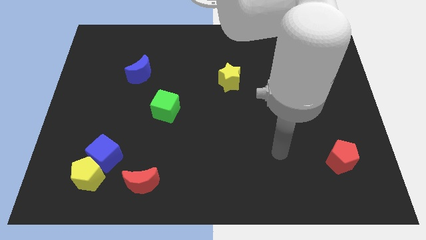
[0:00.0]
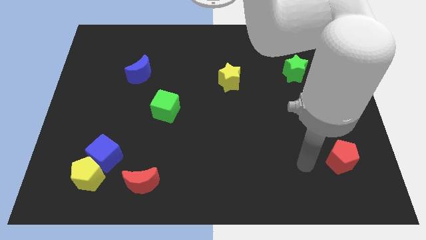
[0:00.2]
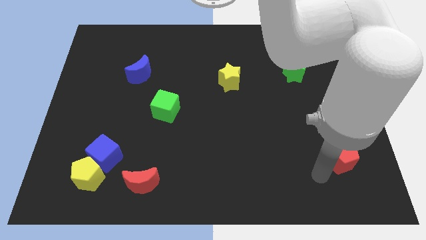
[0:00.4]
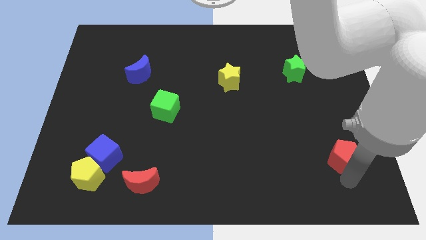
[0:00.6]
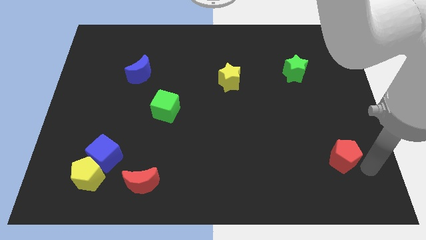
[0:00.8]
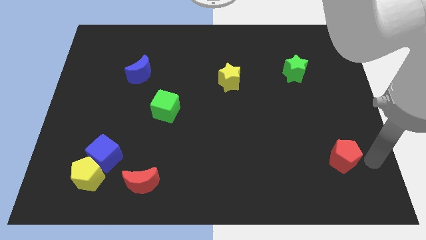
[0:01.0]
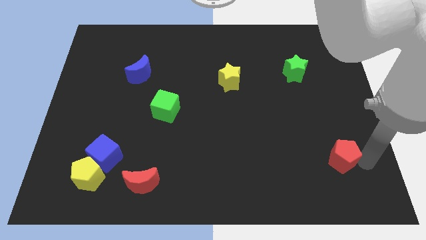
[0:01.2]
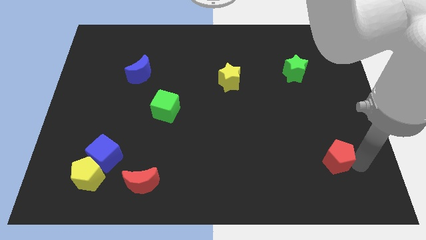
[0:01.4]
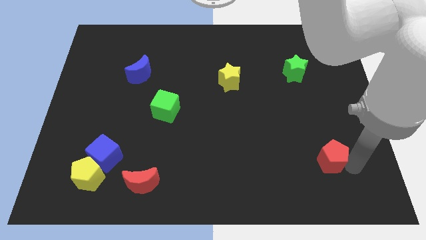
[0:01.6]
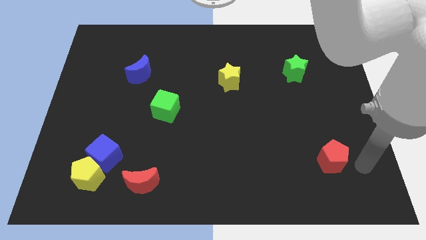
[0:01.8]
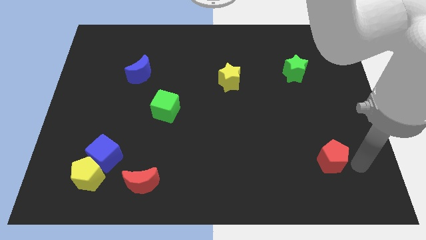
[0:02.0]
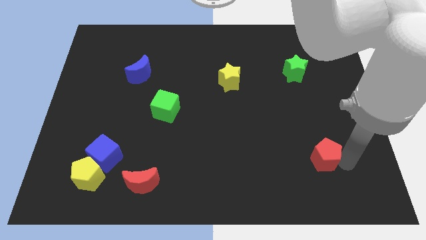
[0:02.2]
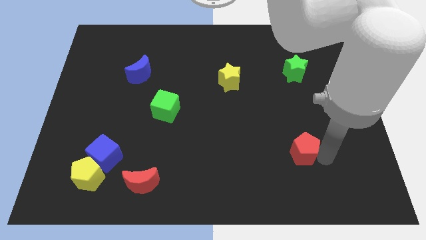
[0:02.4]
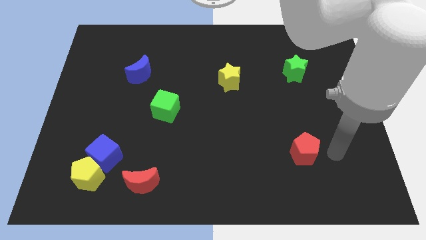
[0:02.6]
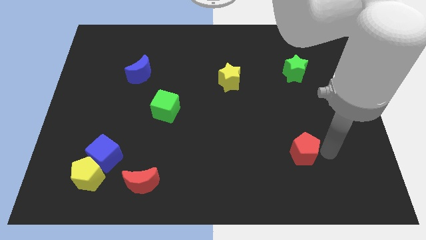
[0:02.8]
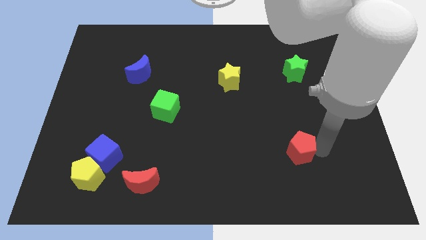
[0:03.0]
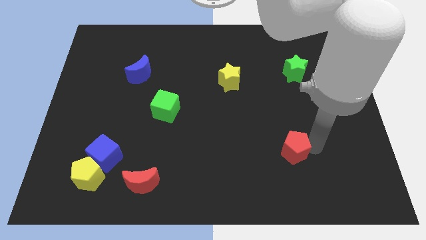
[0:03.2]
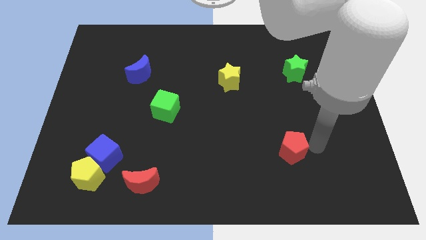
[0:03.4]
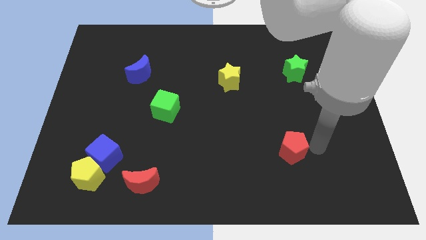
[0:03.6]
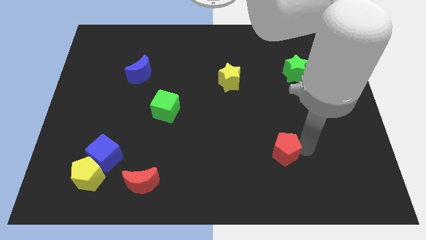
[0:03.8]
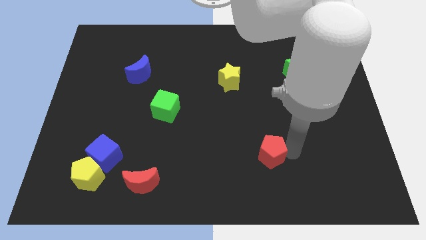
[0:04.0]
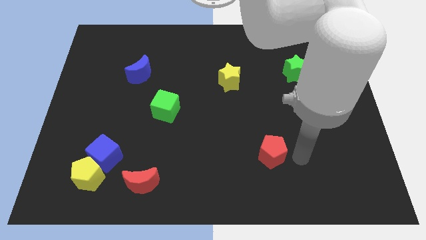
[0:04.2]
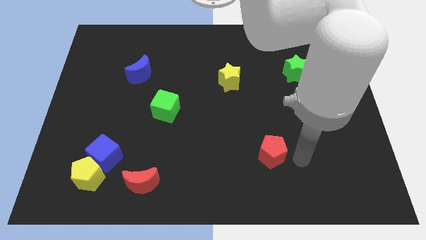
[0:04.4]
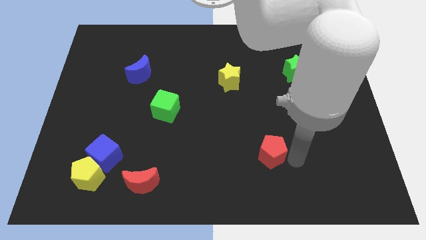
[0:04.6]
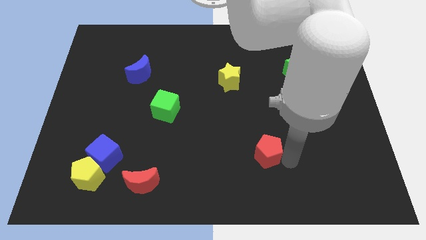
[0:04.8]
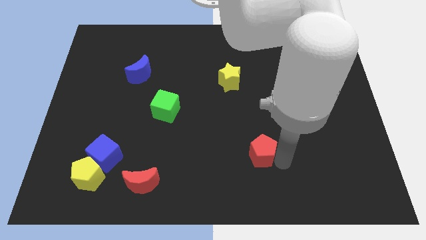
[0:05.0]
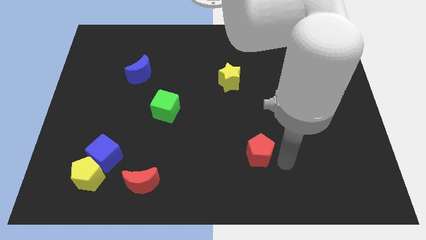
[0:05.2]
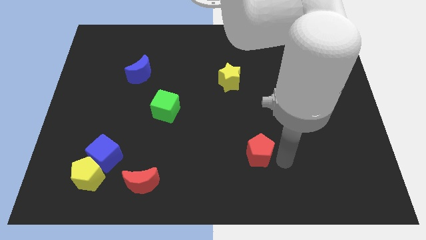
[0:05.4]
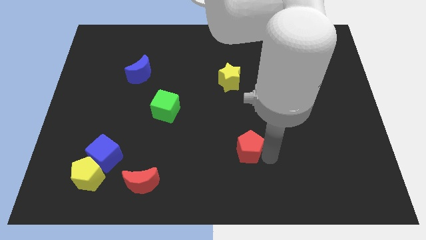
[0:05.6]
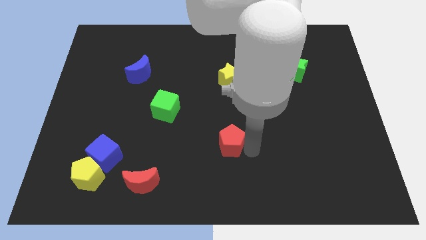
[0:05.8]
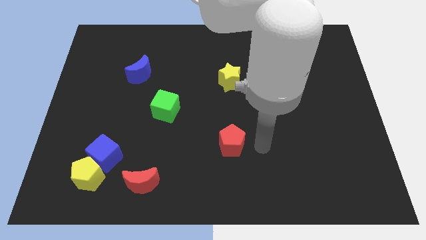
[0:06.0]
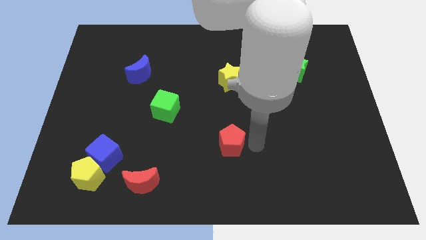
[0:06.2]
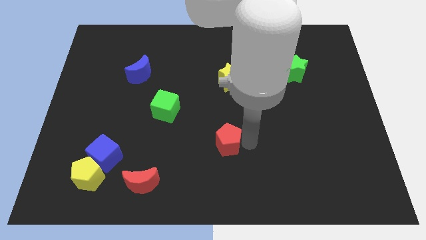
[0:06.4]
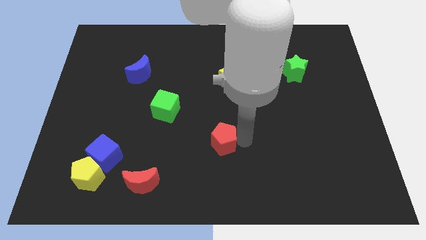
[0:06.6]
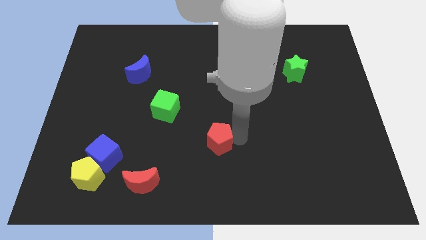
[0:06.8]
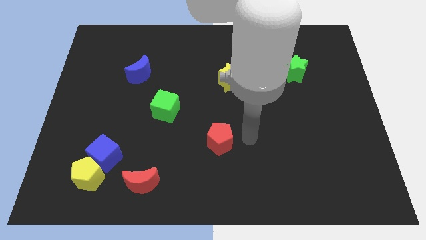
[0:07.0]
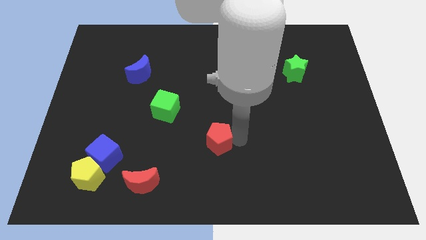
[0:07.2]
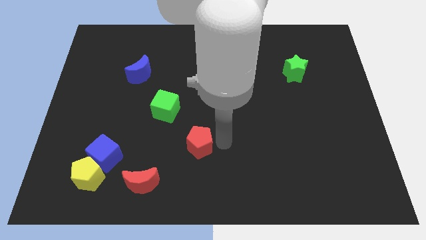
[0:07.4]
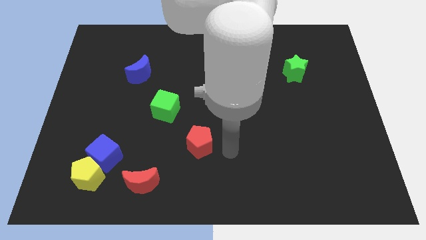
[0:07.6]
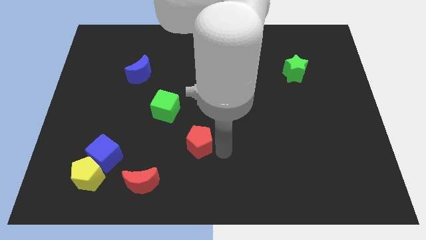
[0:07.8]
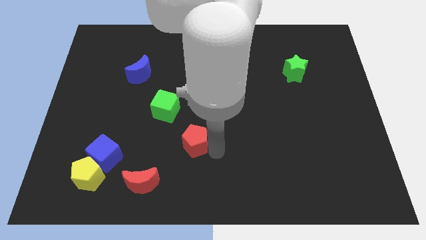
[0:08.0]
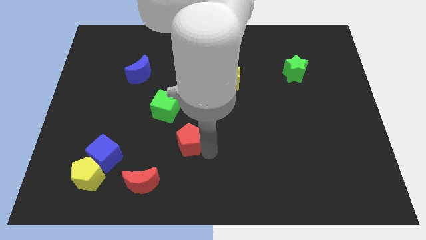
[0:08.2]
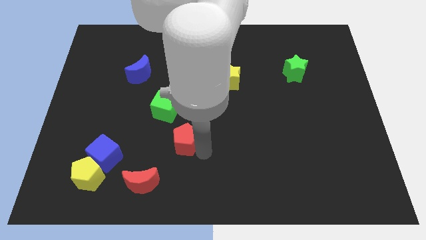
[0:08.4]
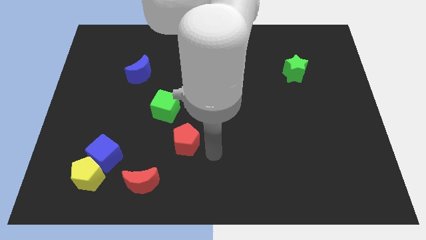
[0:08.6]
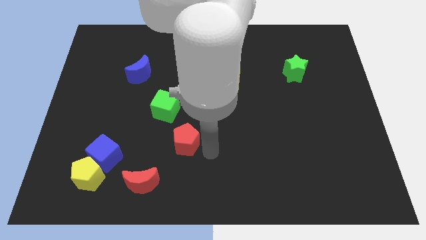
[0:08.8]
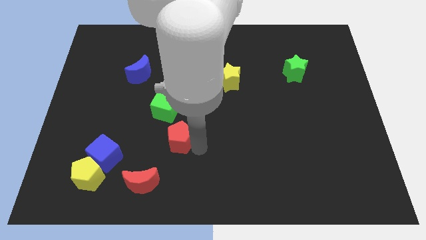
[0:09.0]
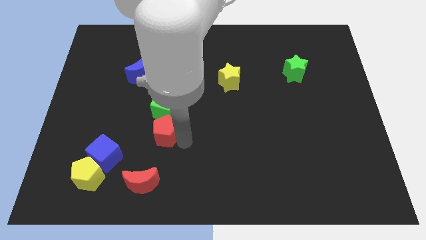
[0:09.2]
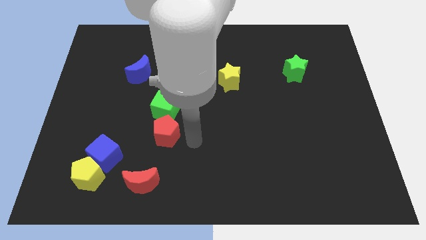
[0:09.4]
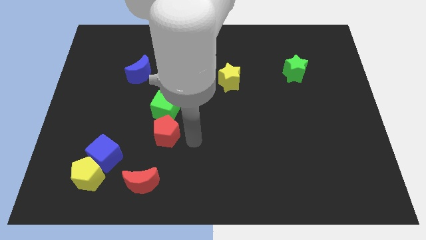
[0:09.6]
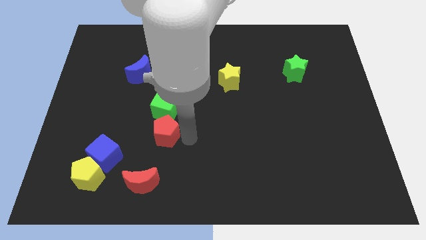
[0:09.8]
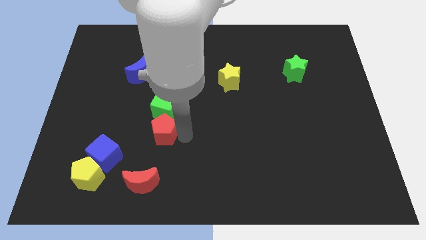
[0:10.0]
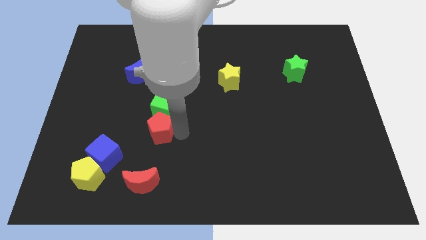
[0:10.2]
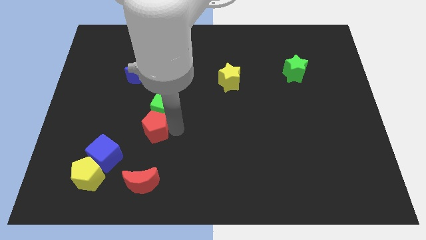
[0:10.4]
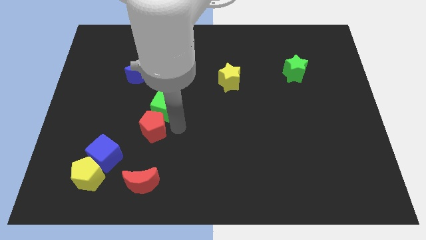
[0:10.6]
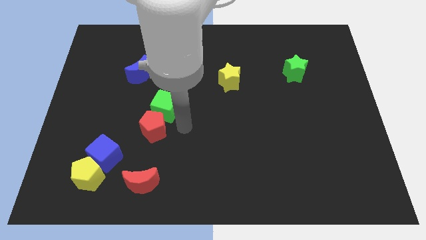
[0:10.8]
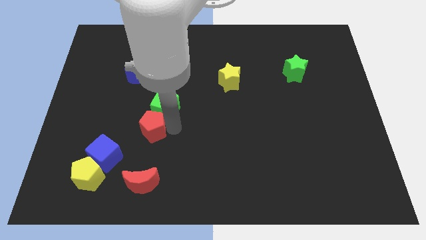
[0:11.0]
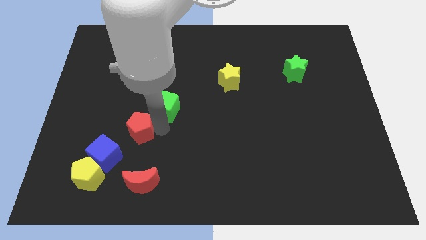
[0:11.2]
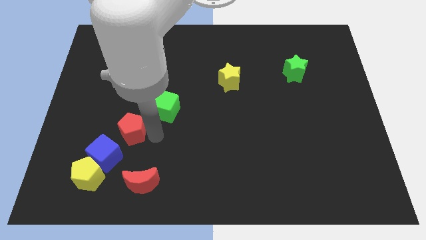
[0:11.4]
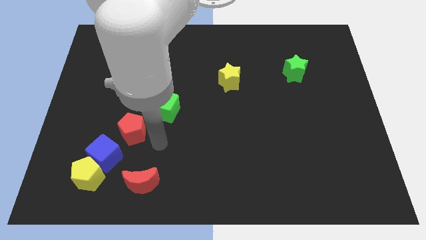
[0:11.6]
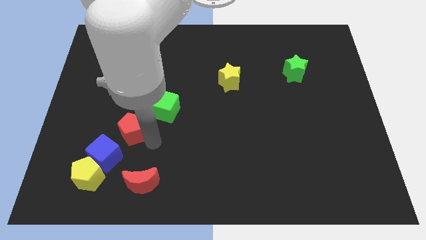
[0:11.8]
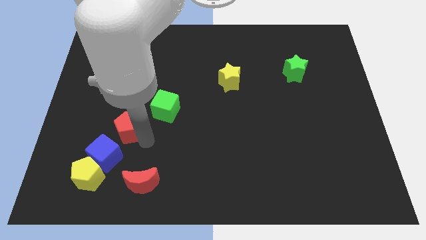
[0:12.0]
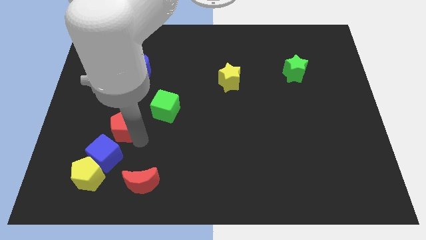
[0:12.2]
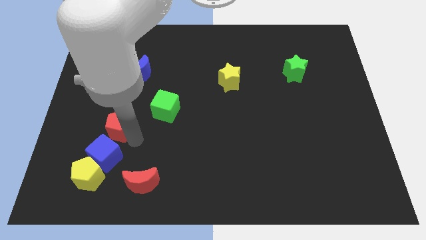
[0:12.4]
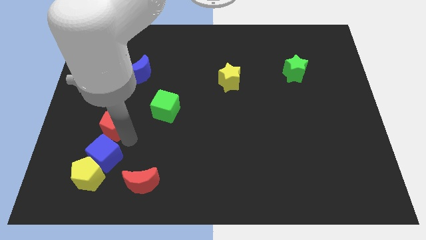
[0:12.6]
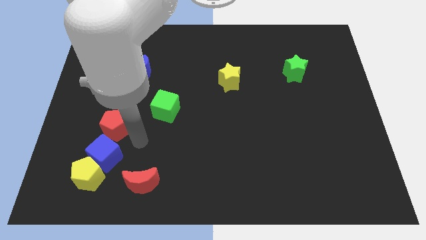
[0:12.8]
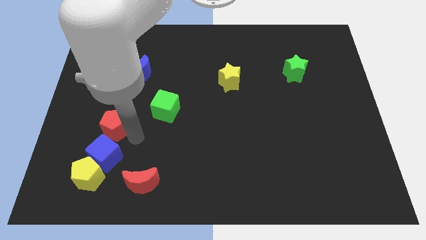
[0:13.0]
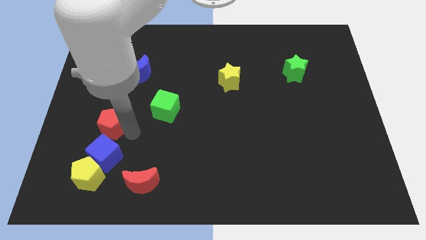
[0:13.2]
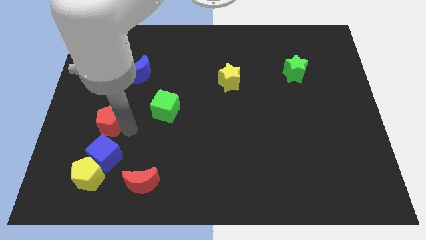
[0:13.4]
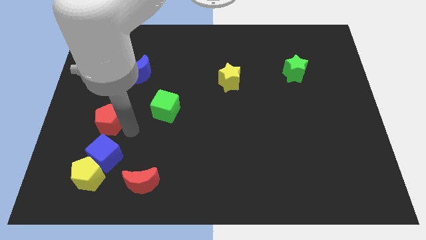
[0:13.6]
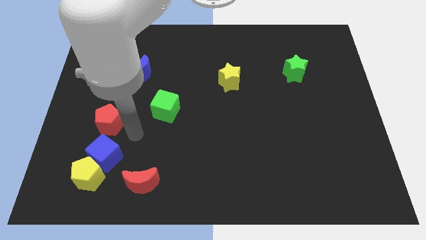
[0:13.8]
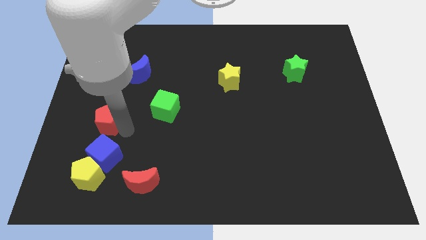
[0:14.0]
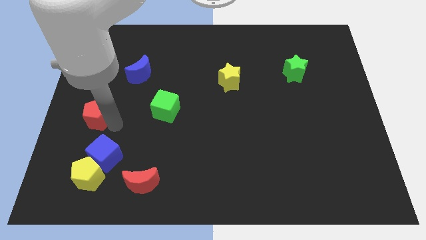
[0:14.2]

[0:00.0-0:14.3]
slide the red pentagon to the left side of the board
